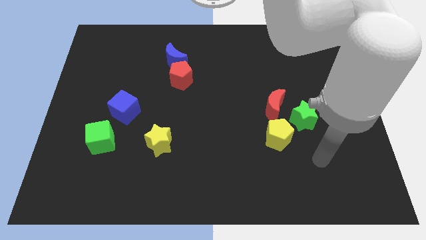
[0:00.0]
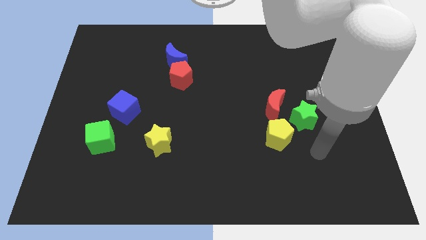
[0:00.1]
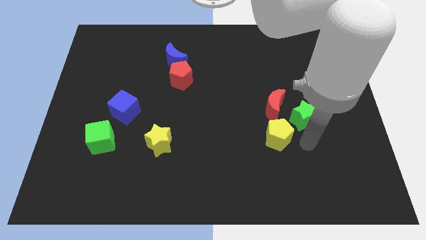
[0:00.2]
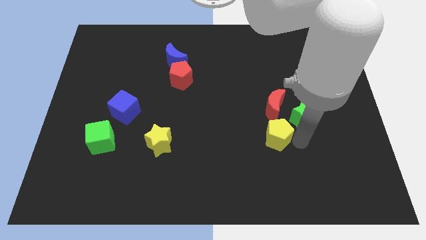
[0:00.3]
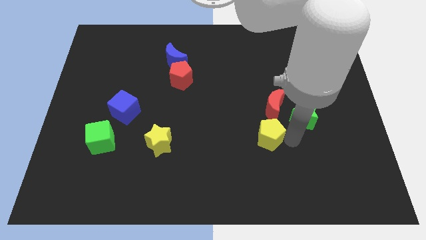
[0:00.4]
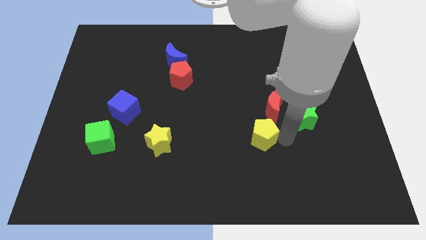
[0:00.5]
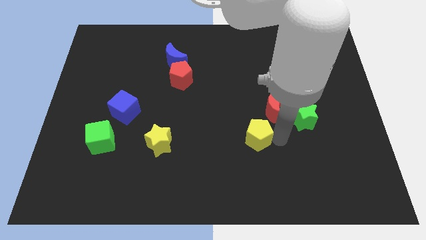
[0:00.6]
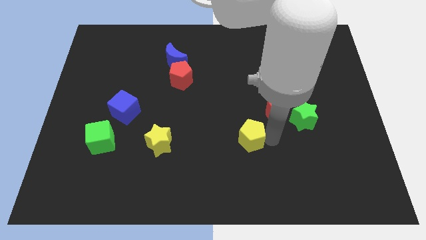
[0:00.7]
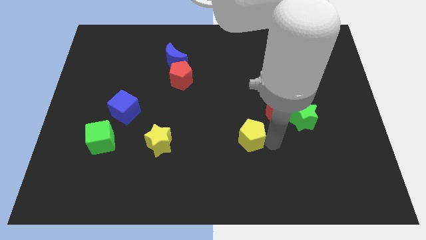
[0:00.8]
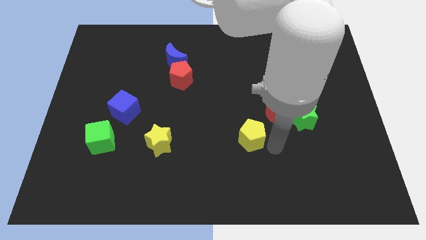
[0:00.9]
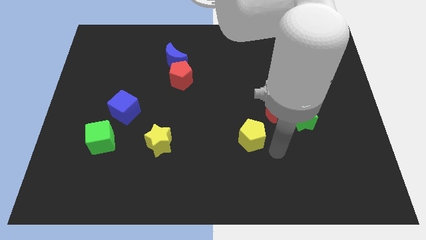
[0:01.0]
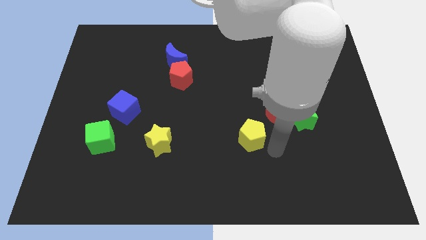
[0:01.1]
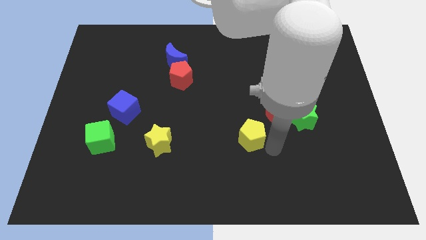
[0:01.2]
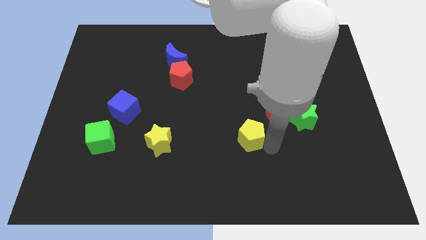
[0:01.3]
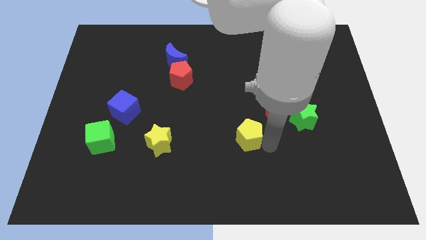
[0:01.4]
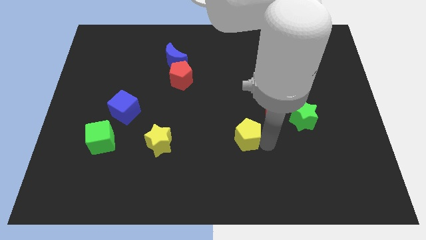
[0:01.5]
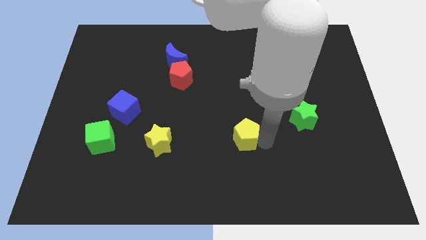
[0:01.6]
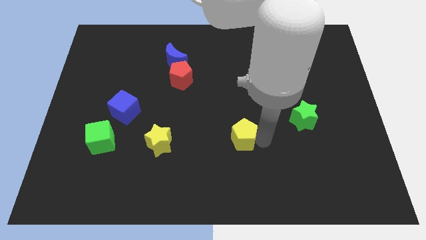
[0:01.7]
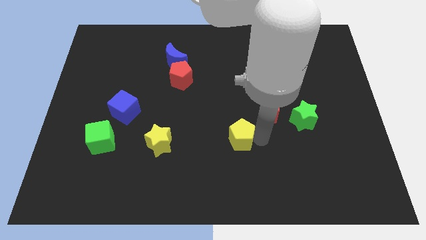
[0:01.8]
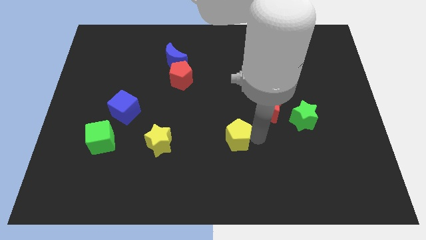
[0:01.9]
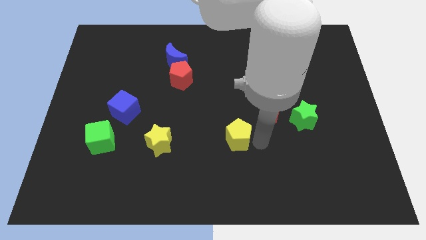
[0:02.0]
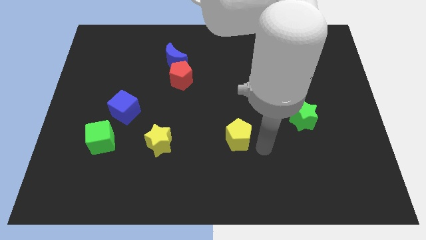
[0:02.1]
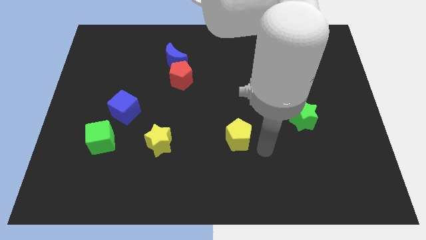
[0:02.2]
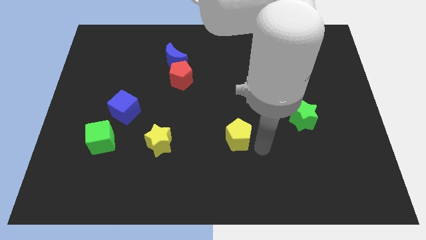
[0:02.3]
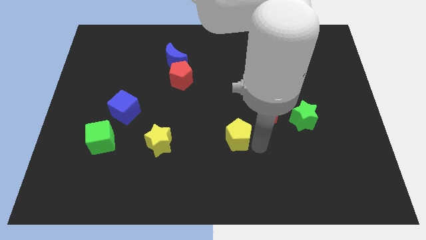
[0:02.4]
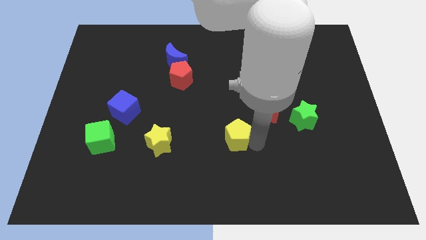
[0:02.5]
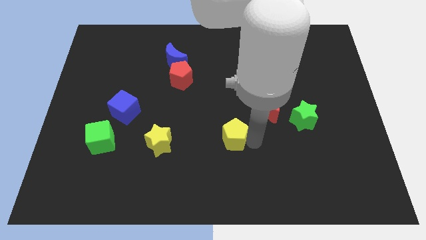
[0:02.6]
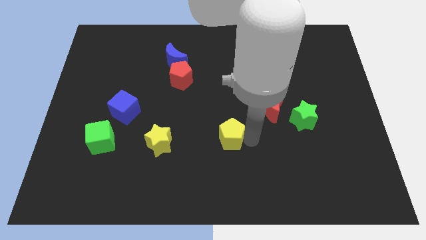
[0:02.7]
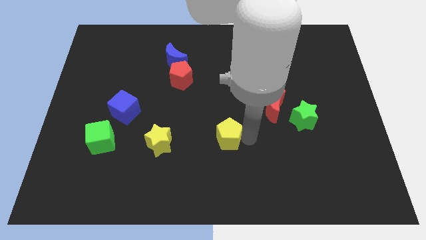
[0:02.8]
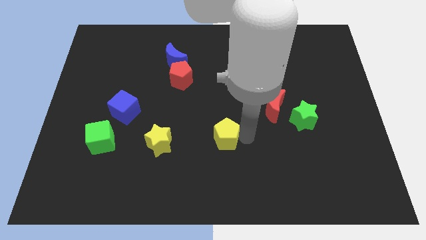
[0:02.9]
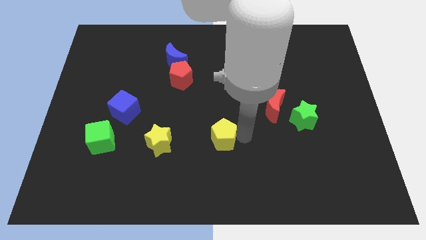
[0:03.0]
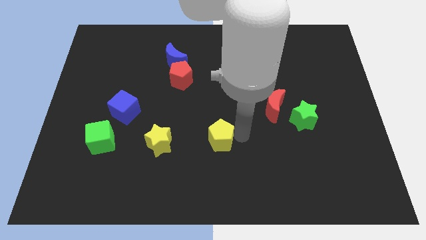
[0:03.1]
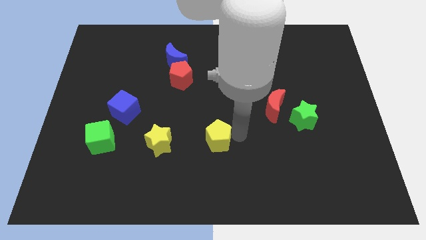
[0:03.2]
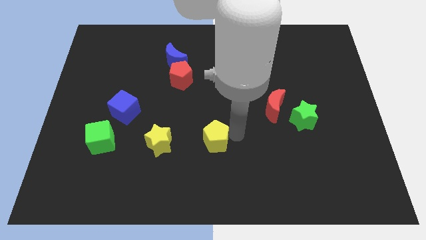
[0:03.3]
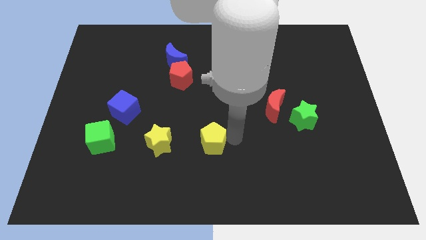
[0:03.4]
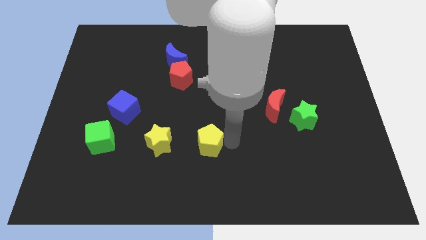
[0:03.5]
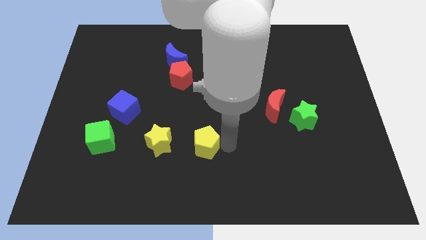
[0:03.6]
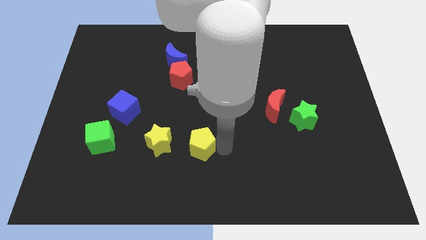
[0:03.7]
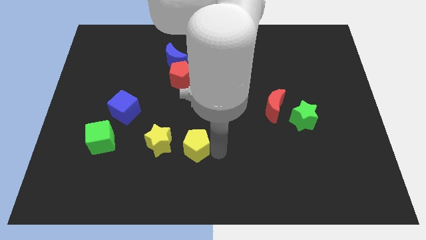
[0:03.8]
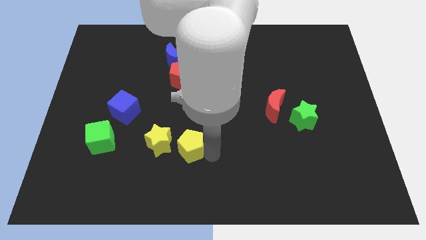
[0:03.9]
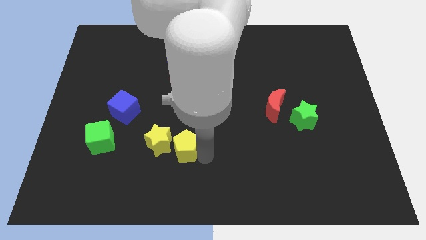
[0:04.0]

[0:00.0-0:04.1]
slide the yellow pentagon left

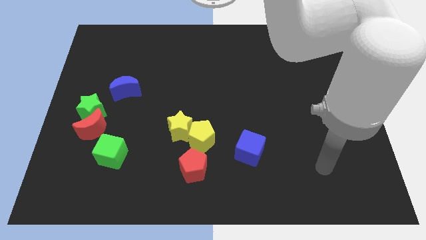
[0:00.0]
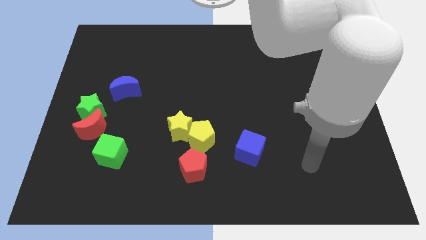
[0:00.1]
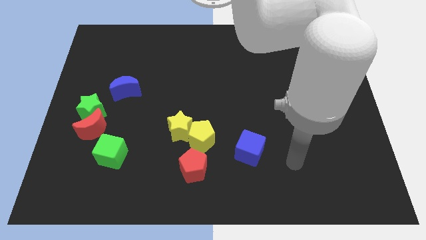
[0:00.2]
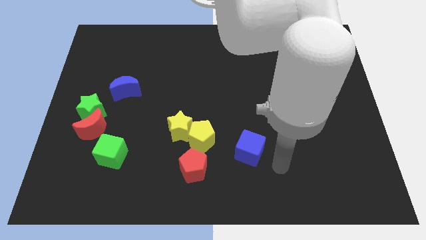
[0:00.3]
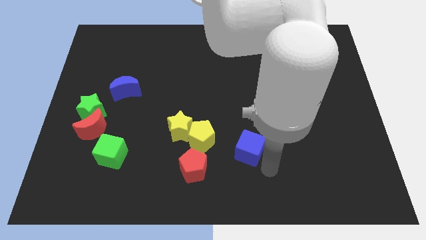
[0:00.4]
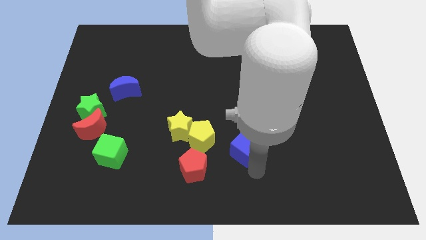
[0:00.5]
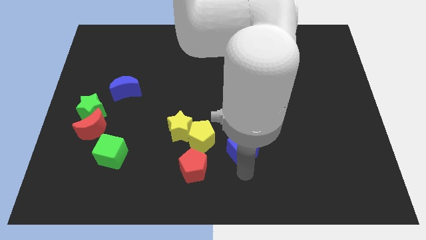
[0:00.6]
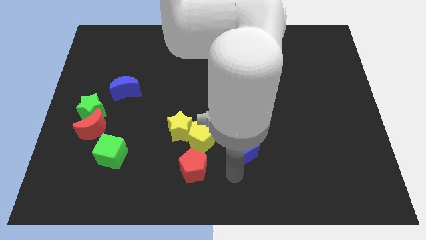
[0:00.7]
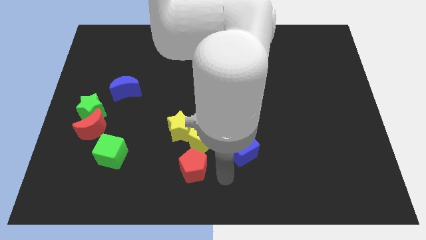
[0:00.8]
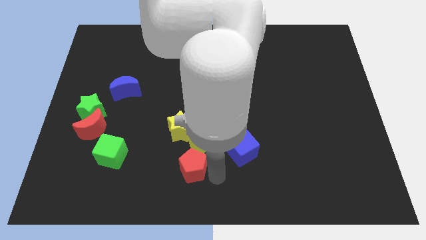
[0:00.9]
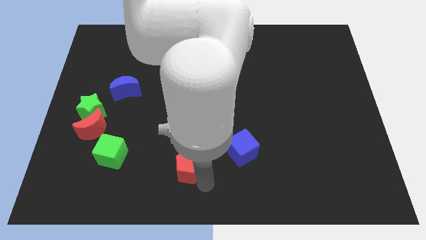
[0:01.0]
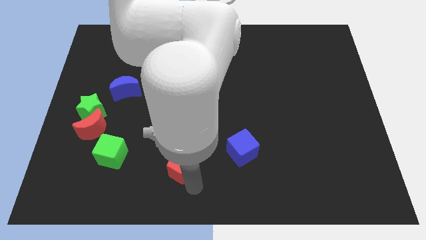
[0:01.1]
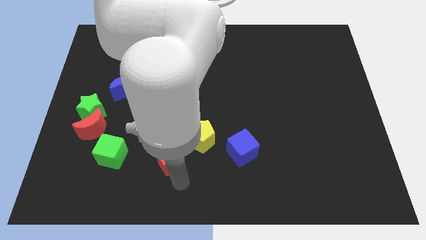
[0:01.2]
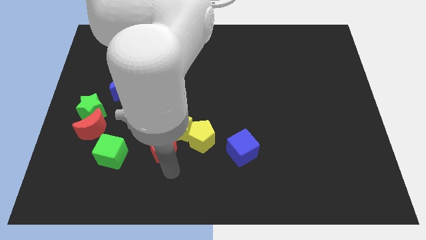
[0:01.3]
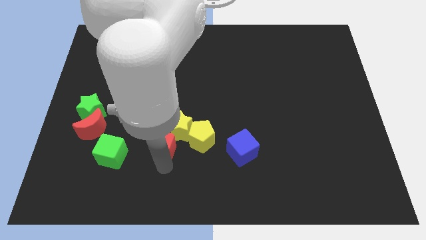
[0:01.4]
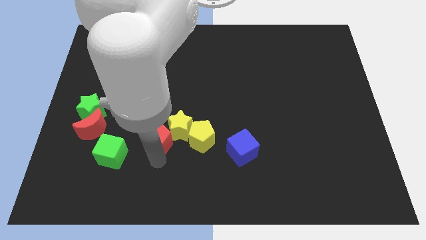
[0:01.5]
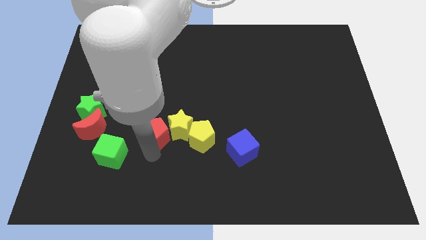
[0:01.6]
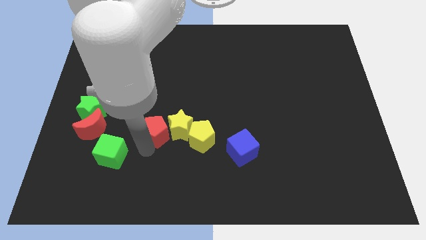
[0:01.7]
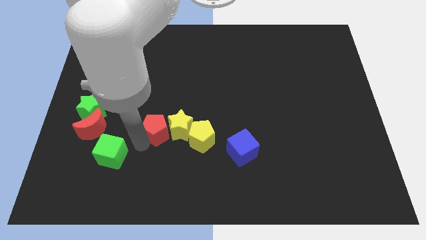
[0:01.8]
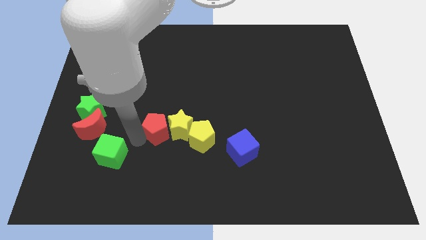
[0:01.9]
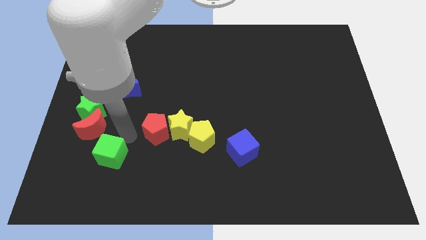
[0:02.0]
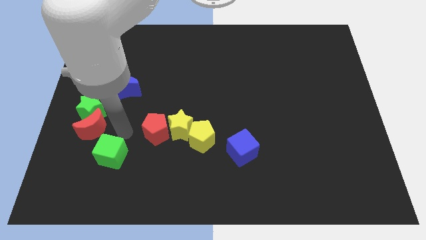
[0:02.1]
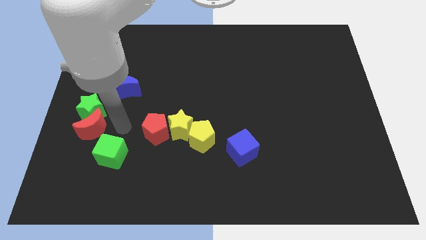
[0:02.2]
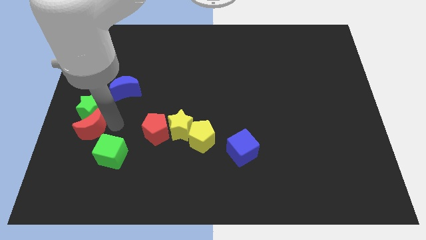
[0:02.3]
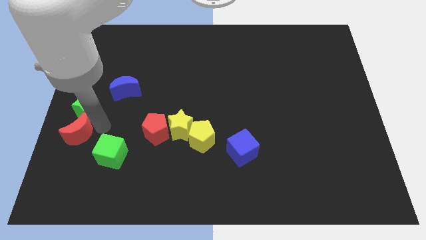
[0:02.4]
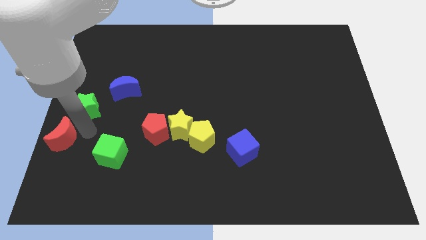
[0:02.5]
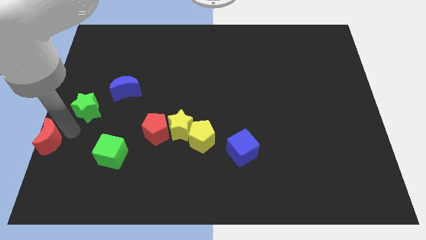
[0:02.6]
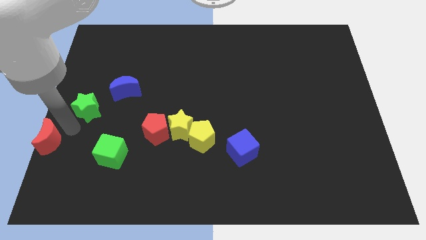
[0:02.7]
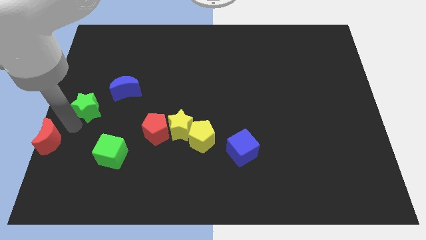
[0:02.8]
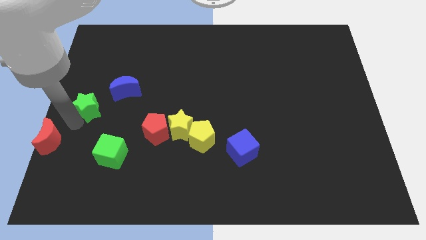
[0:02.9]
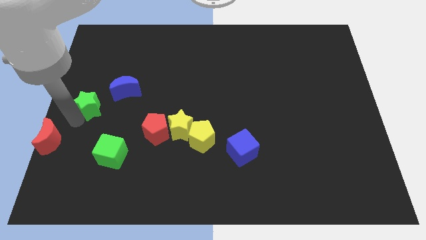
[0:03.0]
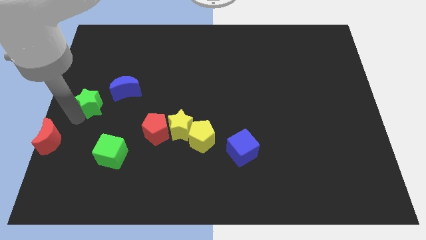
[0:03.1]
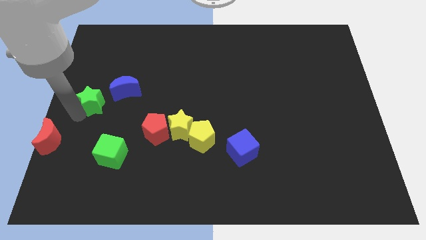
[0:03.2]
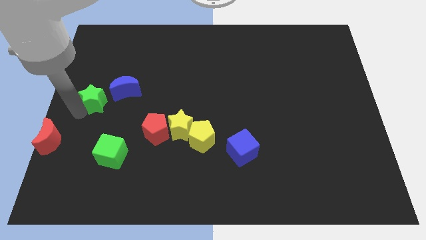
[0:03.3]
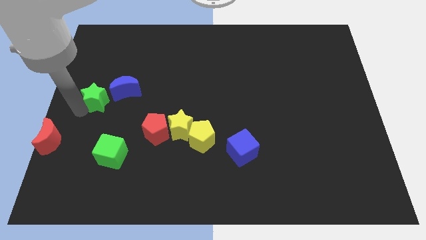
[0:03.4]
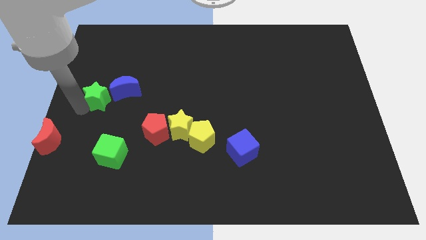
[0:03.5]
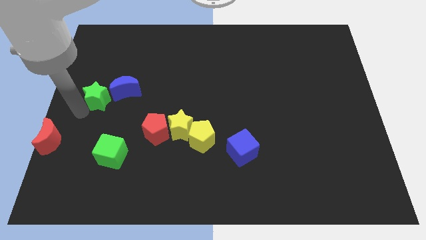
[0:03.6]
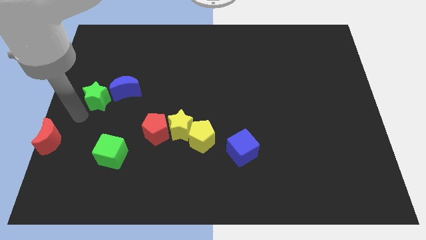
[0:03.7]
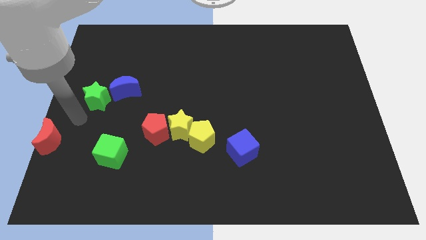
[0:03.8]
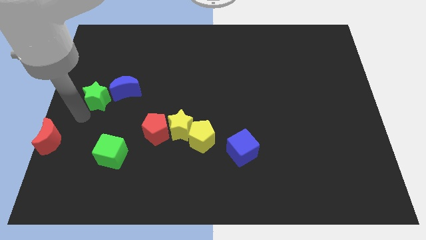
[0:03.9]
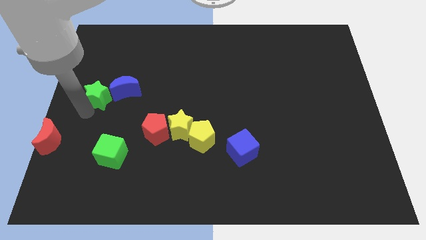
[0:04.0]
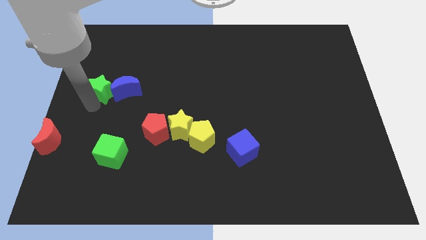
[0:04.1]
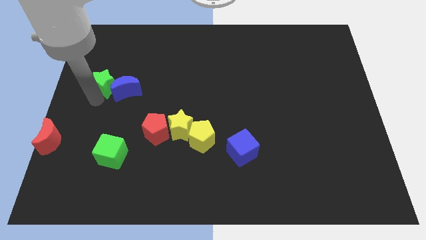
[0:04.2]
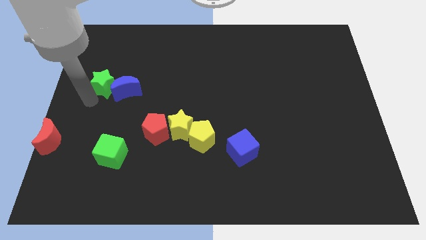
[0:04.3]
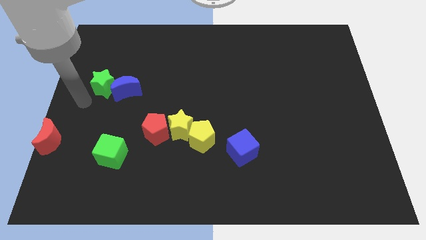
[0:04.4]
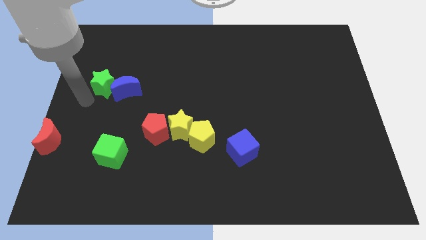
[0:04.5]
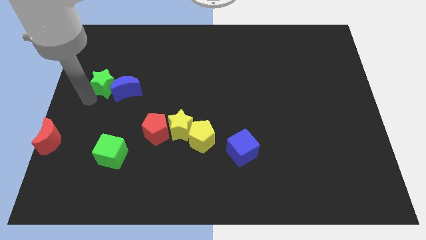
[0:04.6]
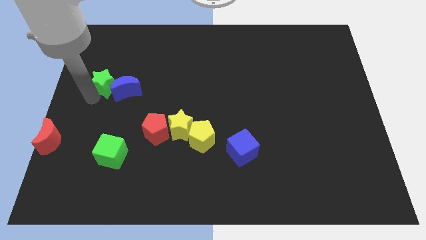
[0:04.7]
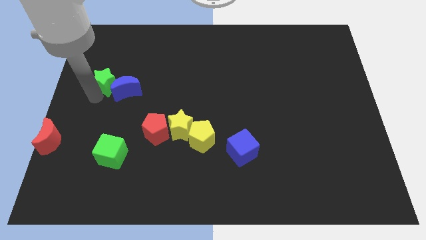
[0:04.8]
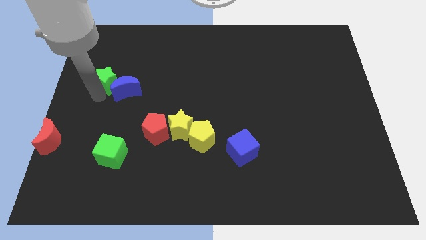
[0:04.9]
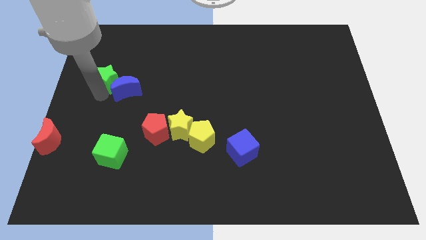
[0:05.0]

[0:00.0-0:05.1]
slightly move the green star upwards and then right
